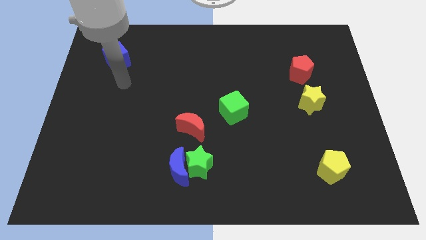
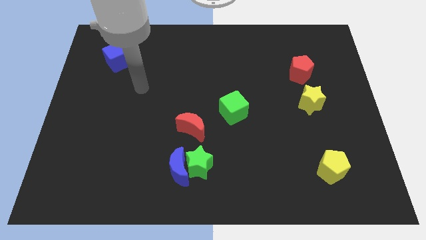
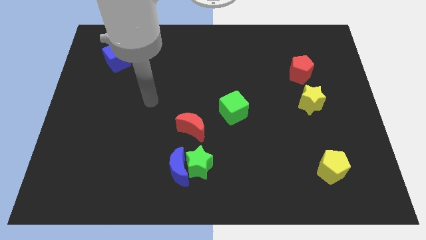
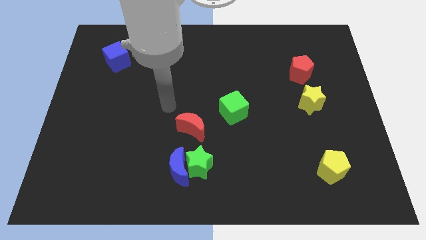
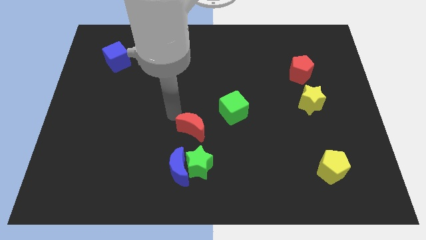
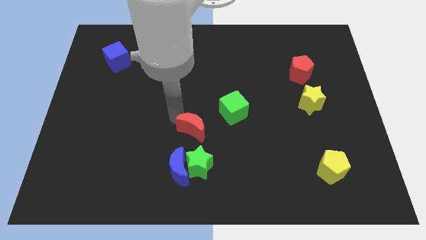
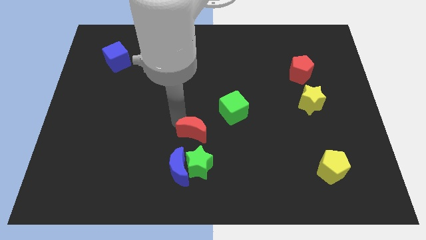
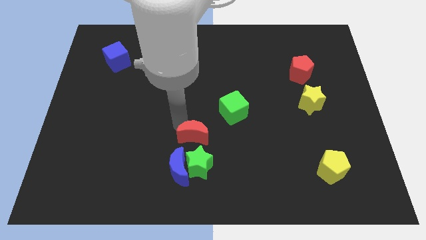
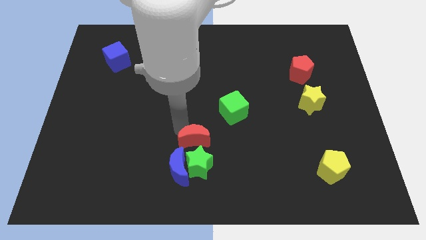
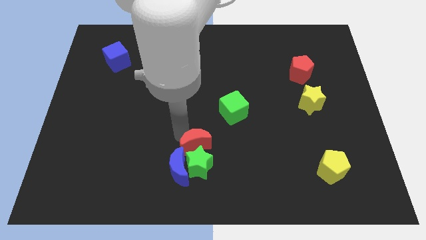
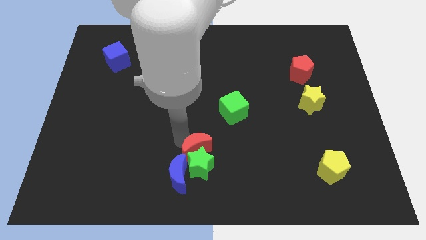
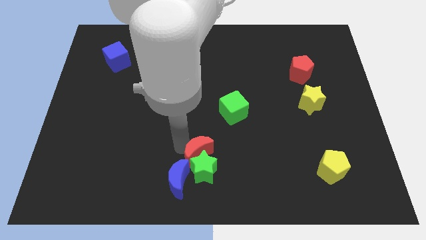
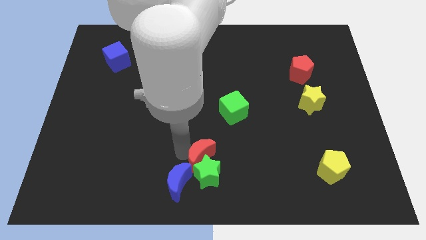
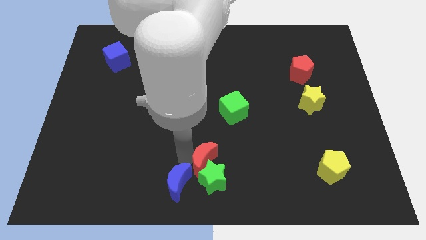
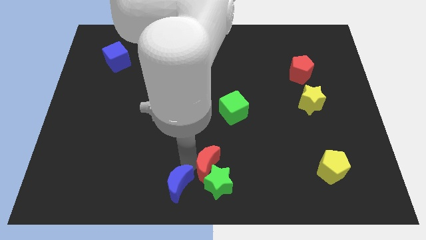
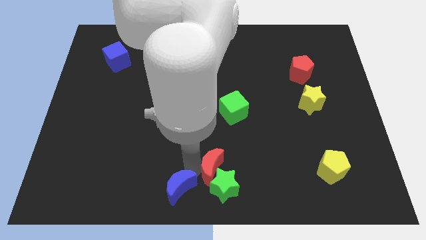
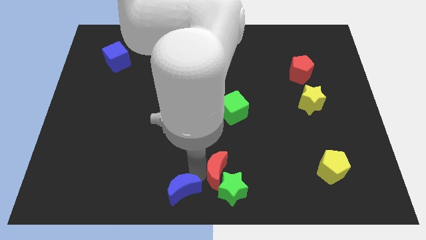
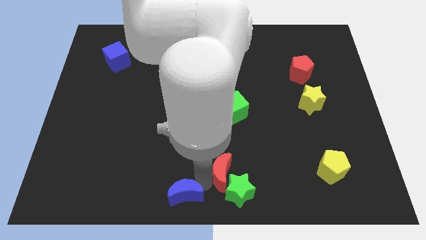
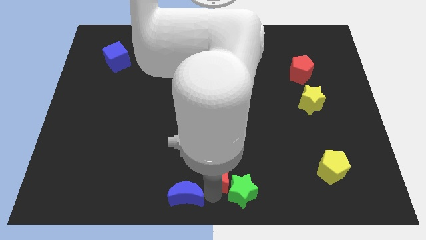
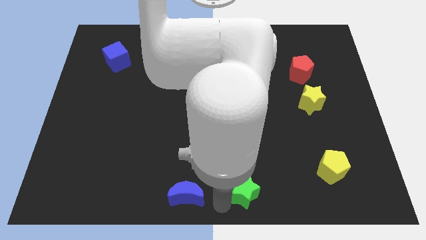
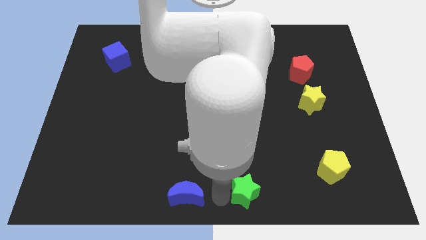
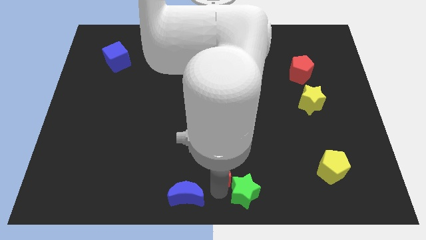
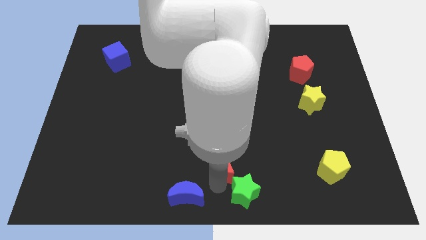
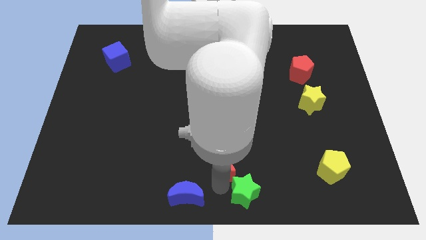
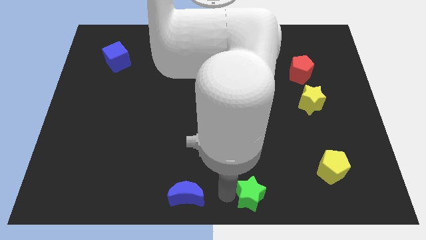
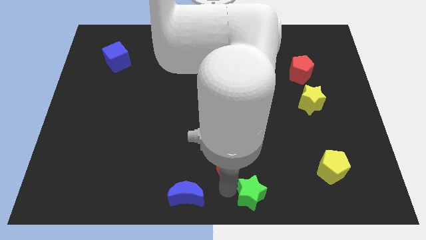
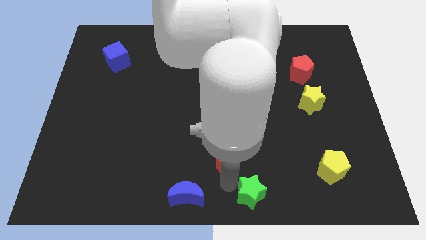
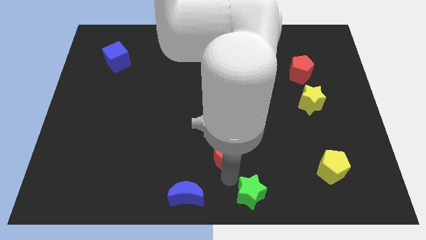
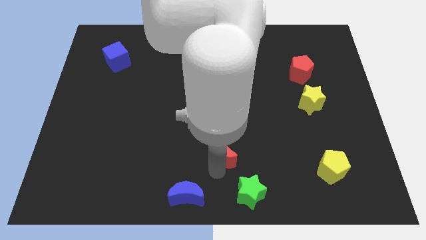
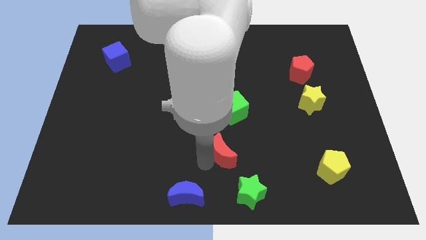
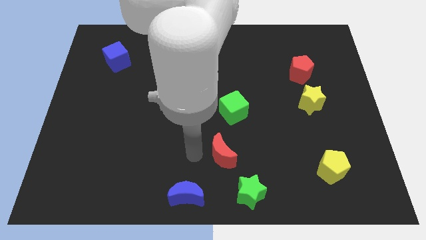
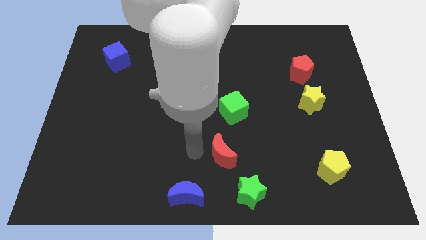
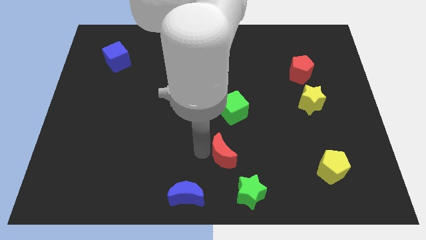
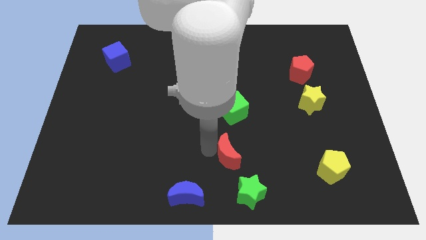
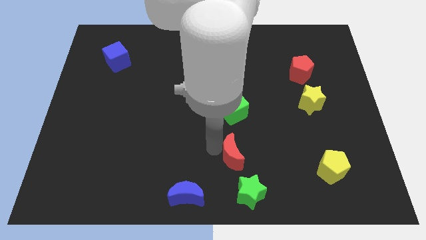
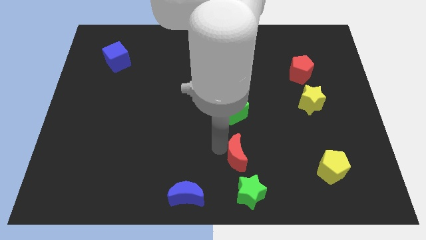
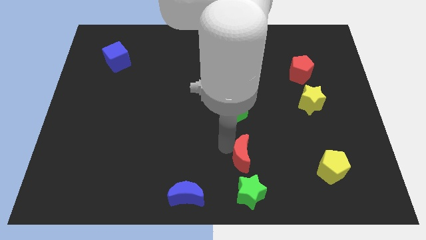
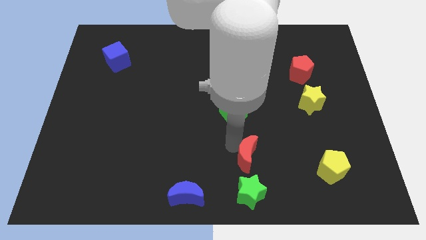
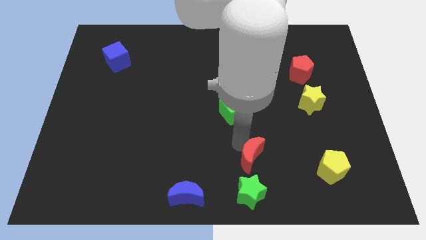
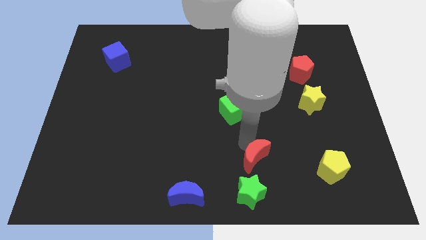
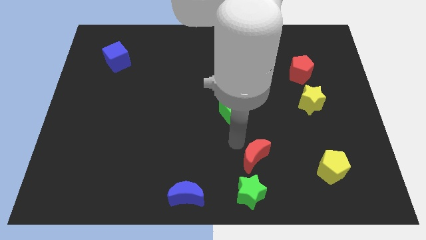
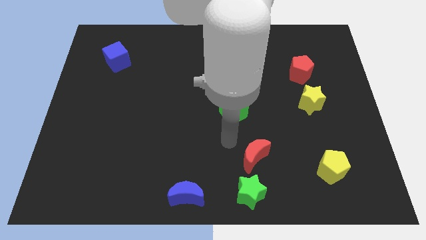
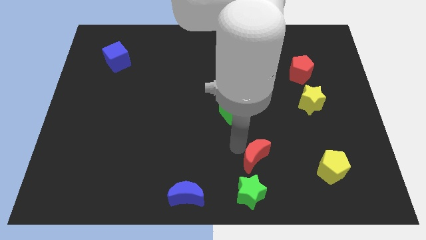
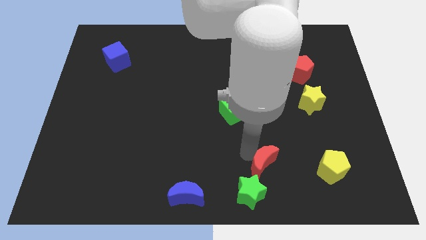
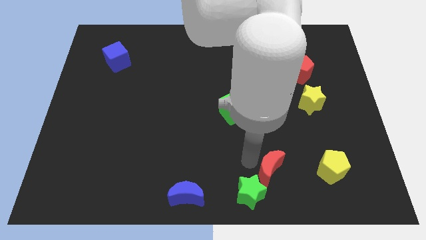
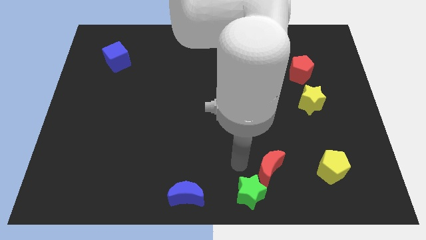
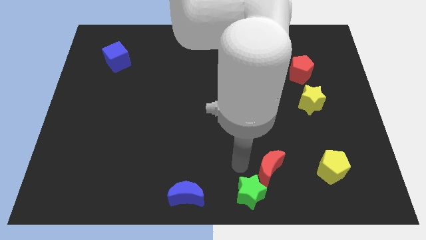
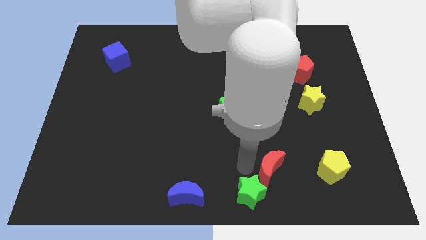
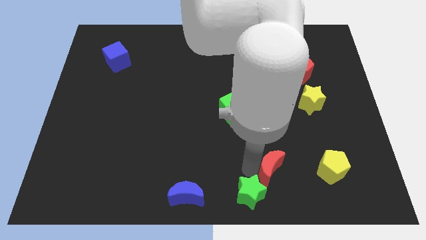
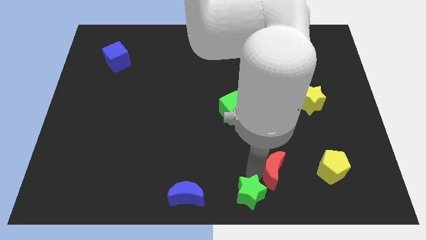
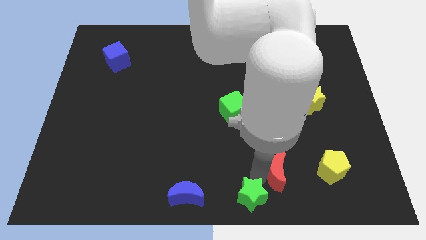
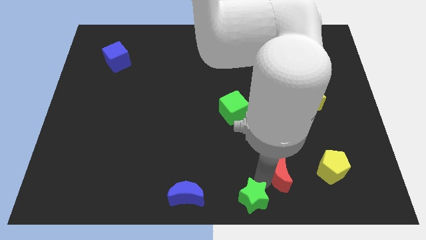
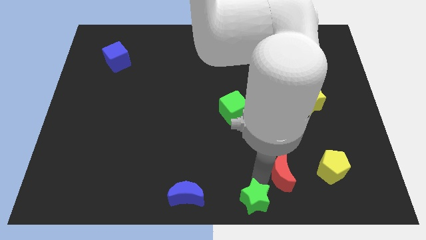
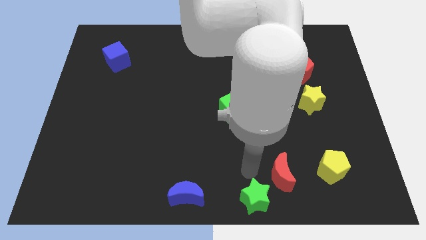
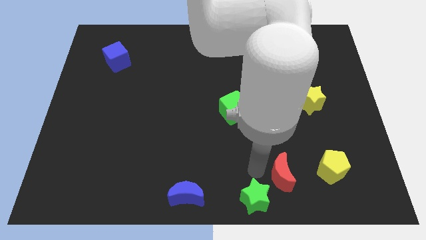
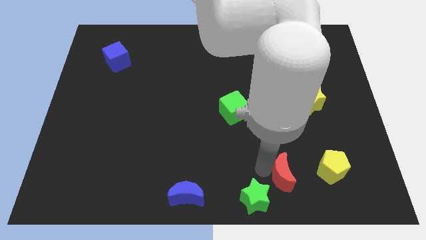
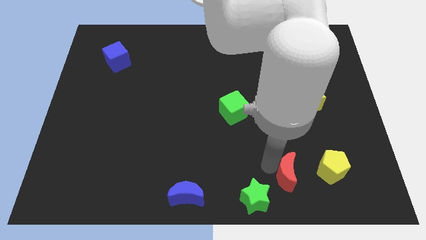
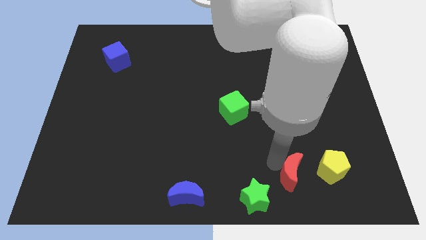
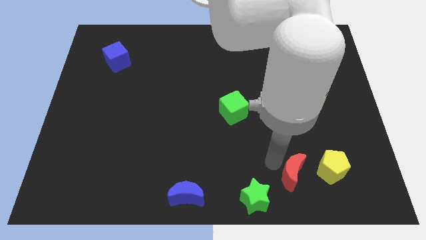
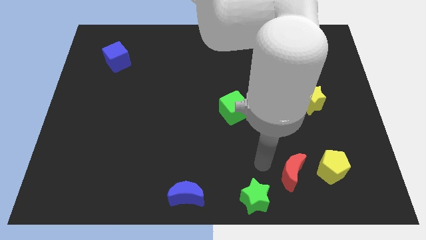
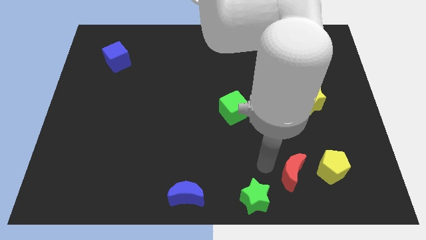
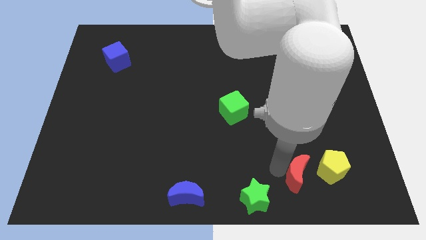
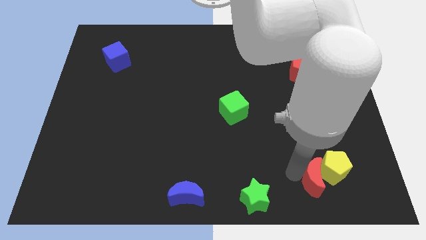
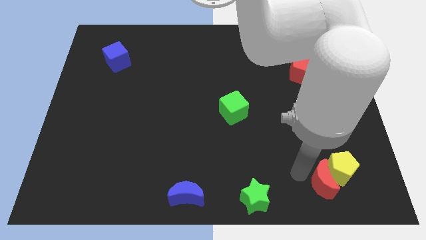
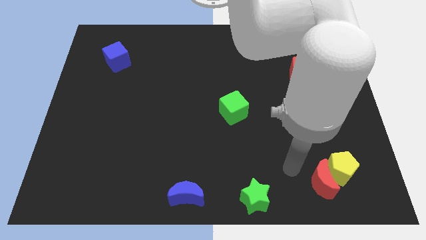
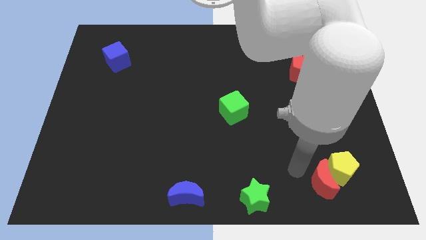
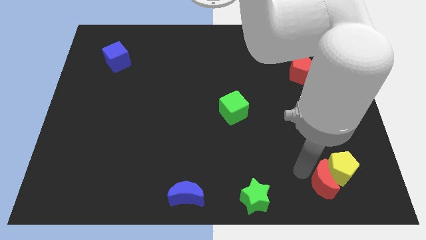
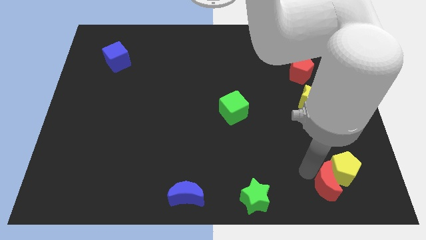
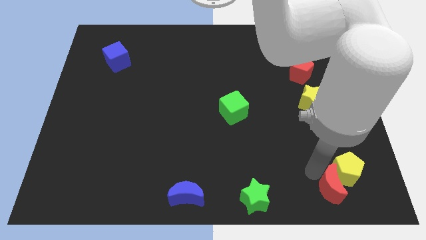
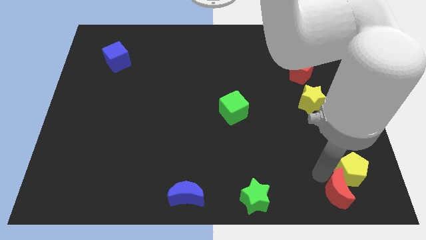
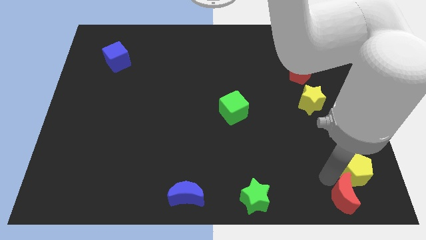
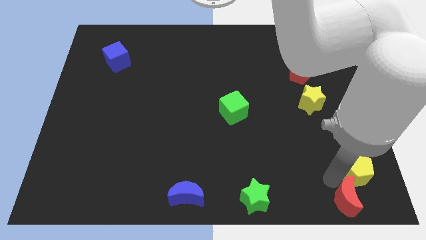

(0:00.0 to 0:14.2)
push the red moon to the bottom right of the board
